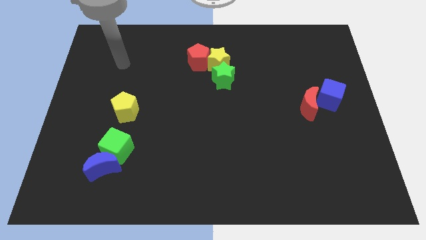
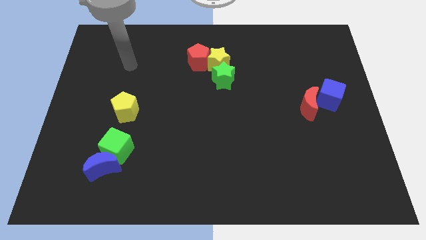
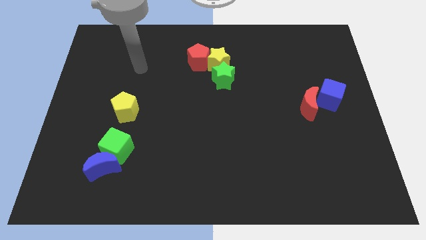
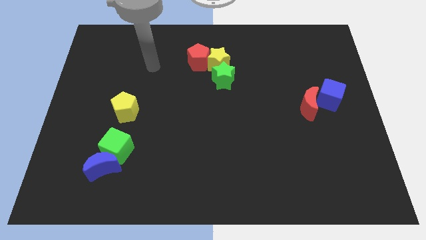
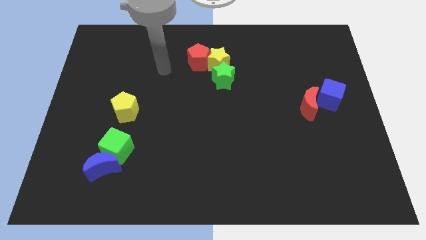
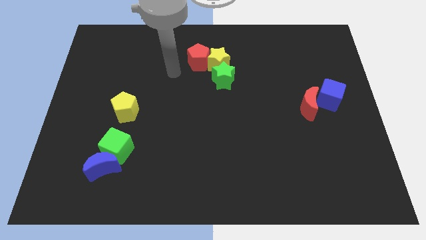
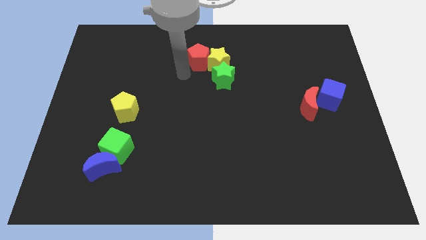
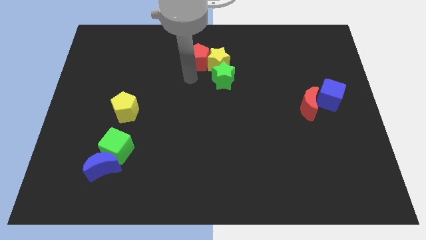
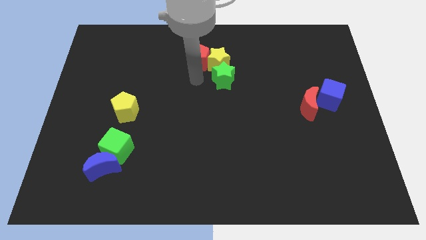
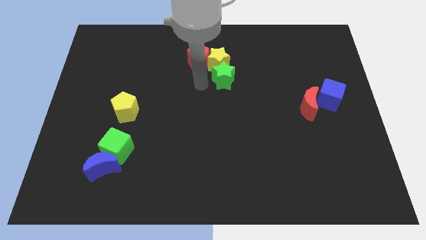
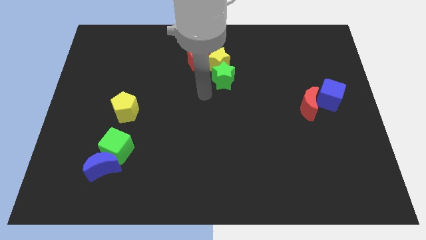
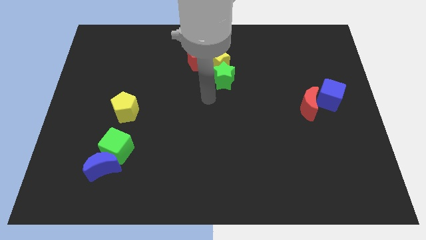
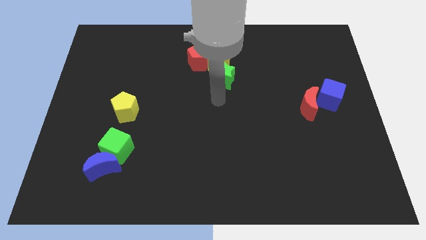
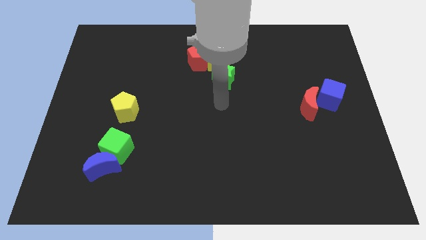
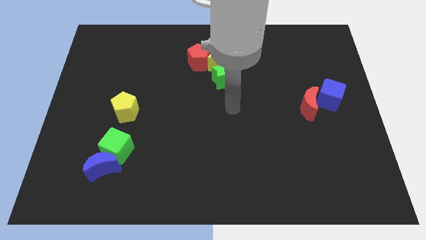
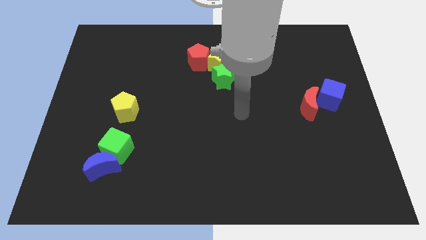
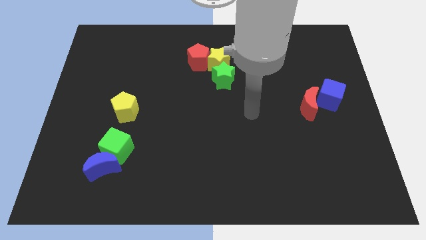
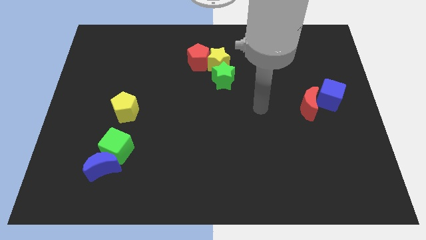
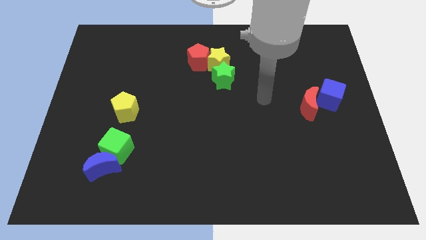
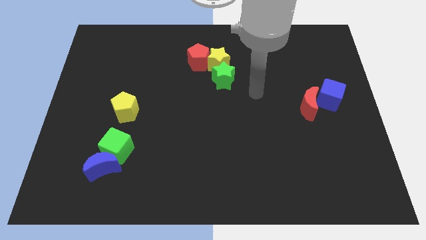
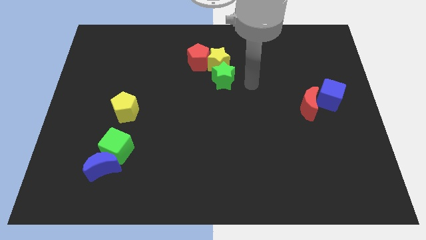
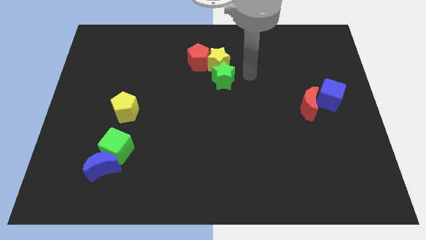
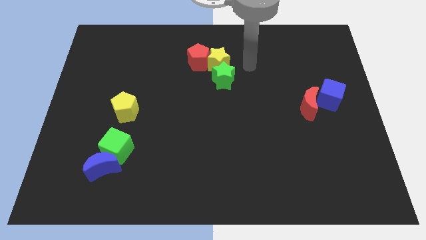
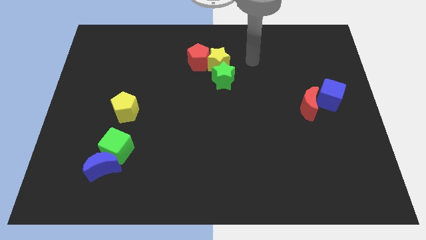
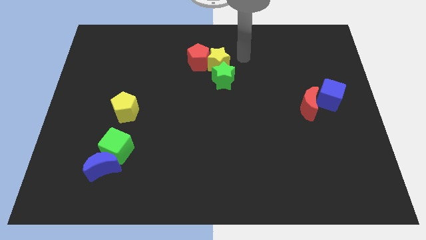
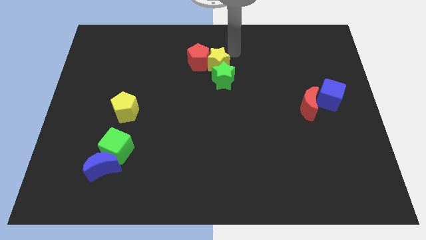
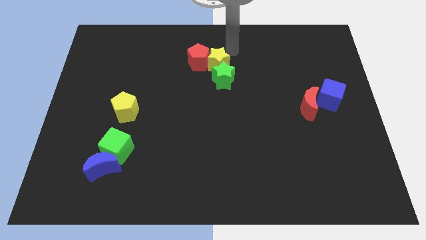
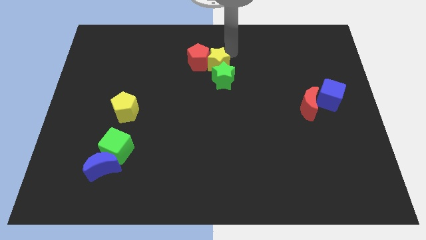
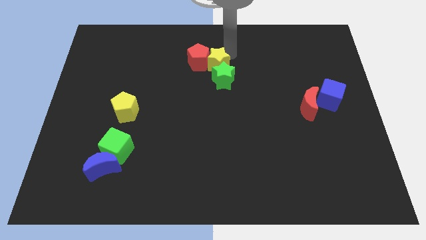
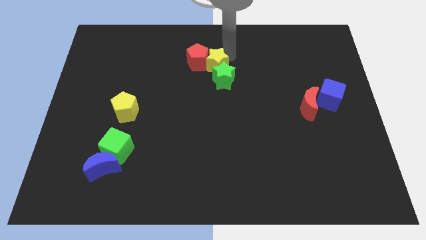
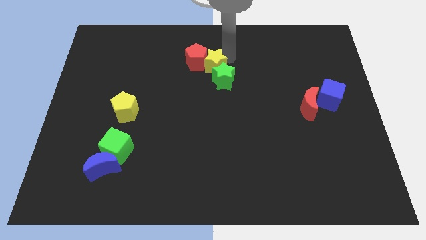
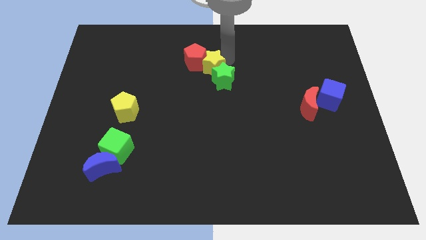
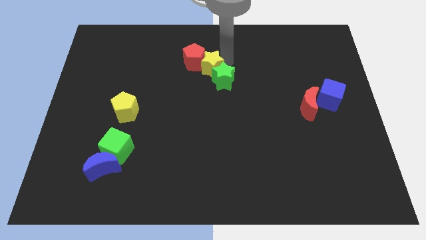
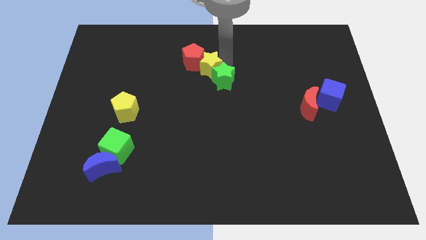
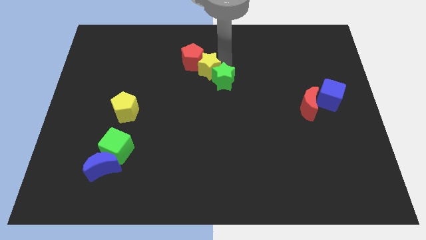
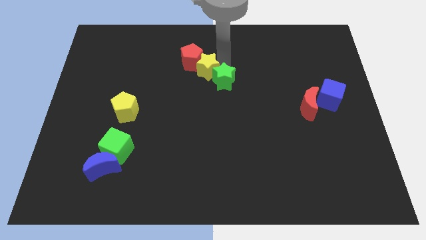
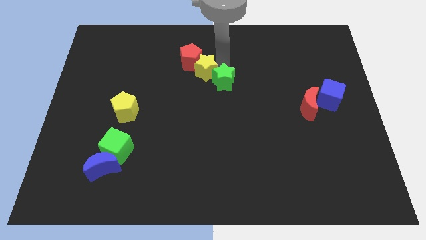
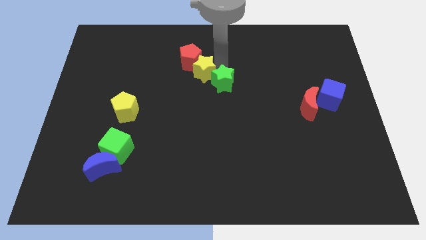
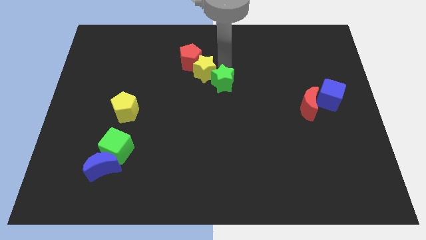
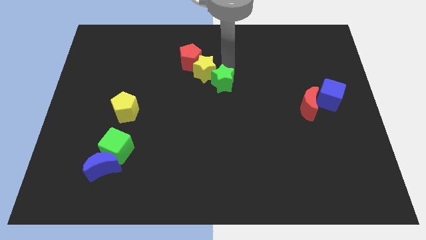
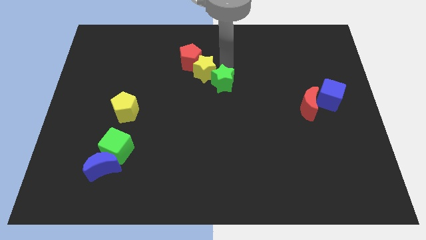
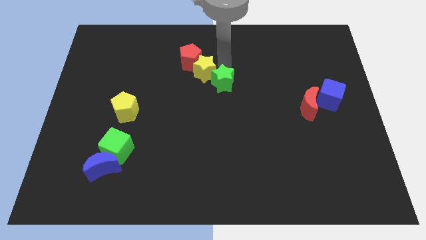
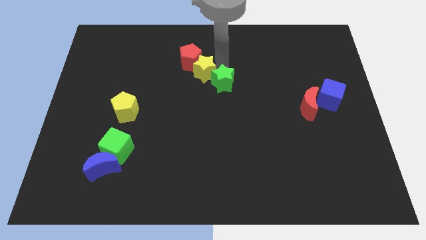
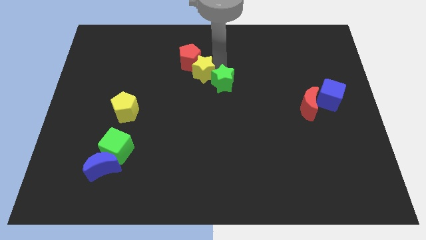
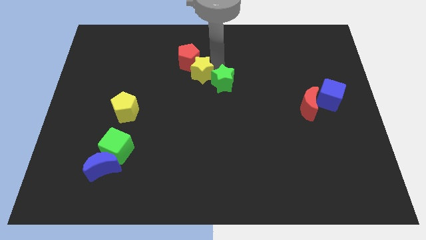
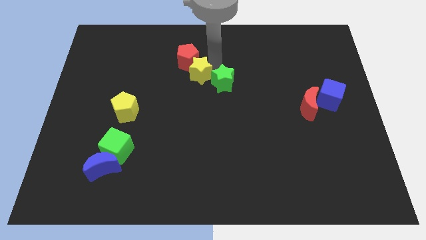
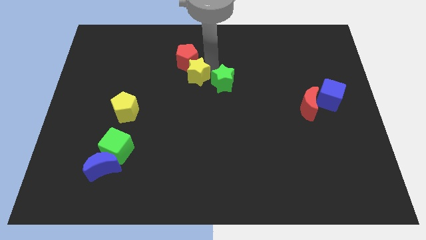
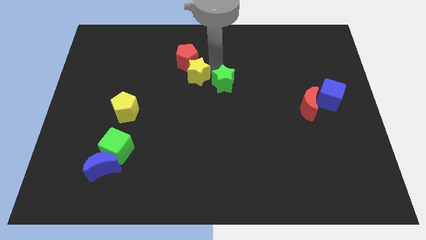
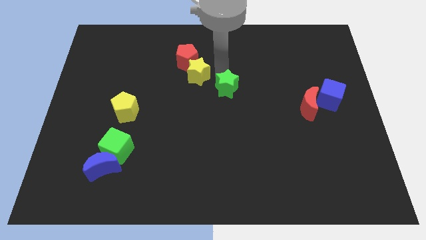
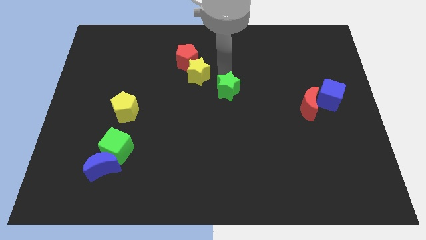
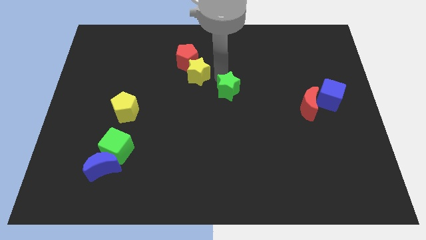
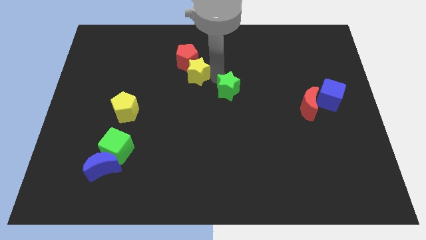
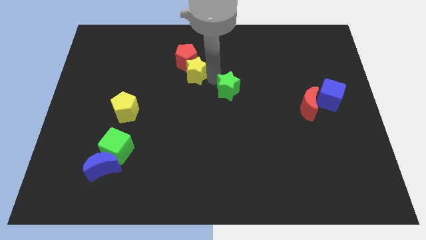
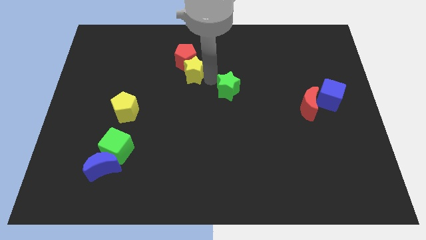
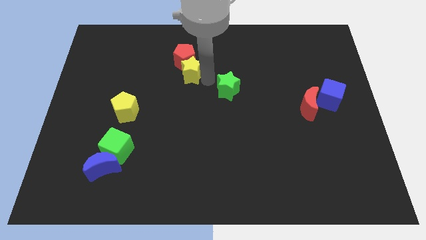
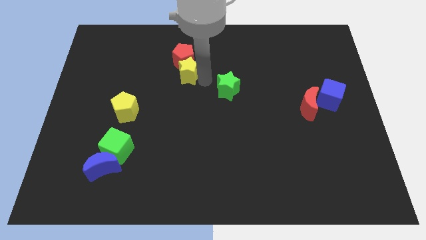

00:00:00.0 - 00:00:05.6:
move the yellow star a bit left

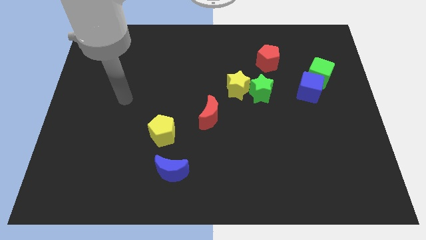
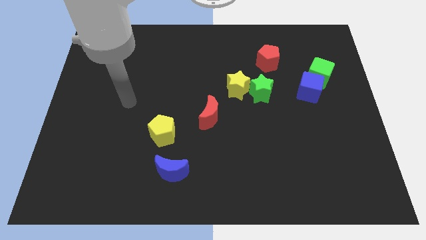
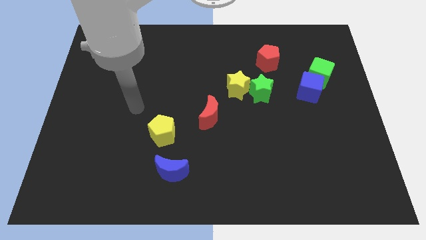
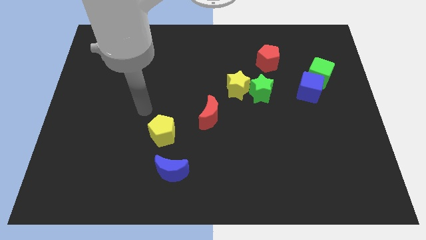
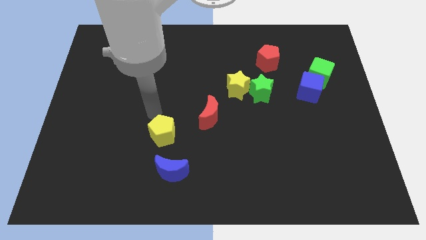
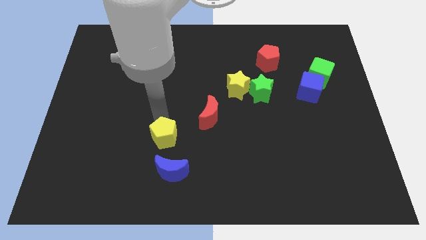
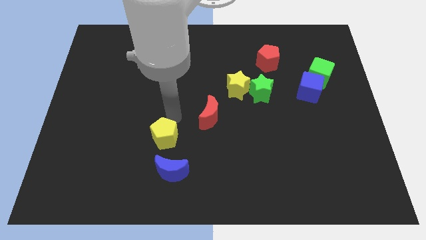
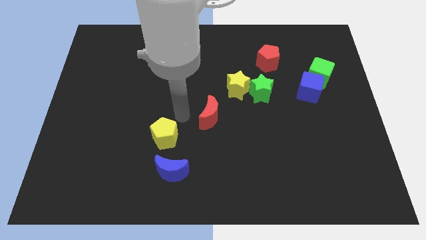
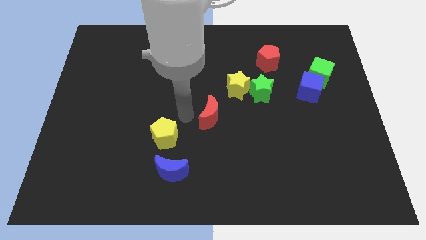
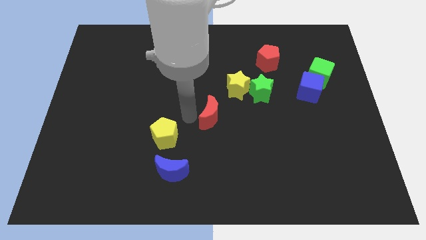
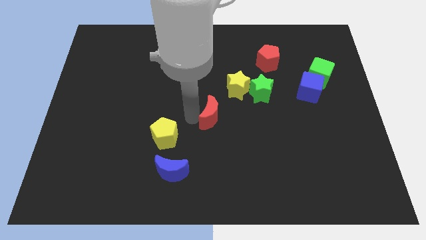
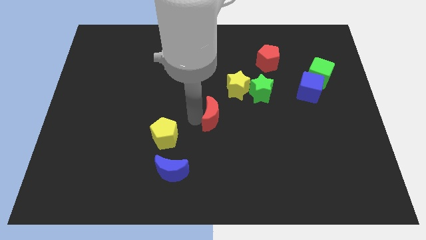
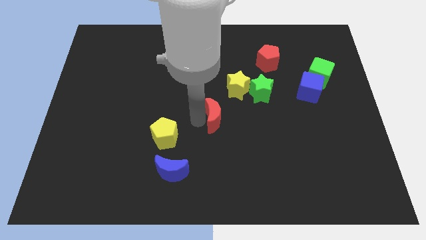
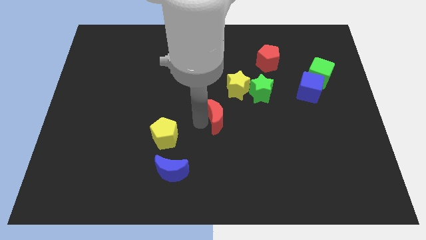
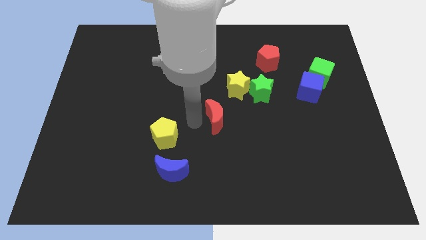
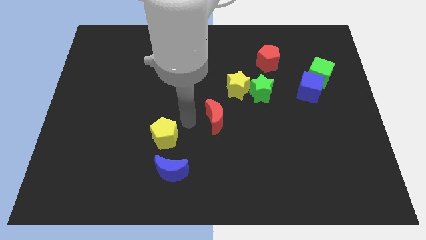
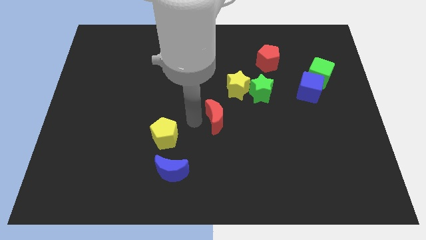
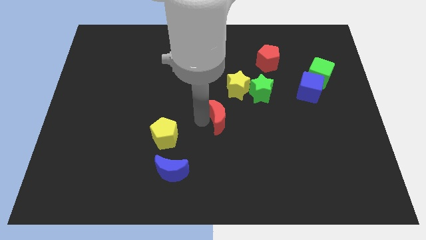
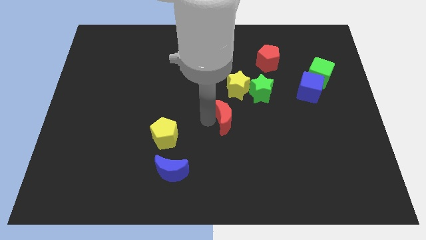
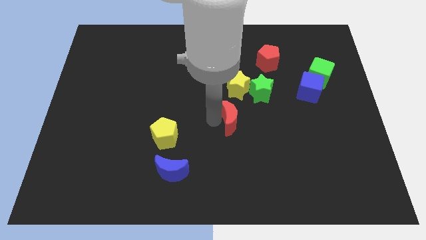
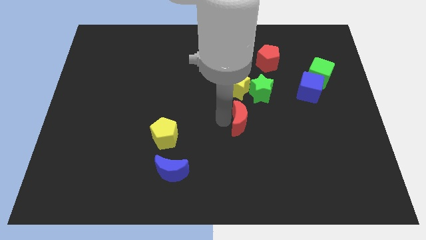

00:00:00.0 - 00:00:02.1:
slide the red moon a bit right
